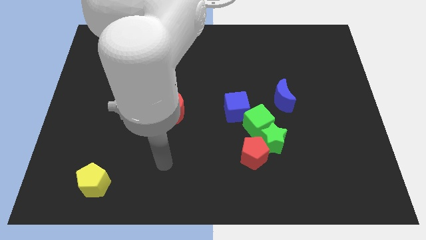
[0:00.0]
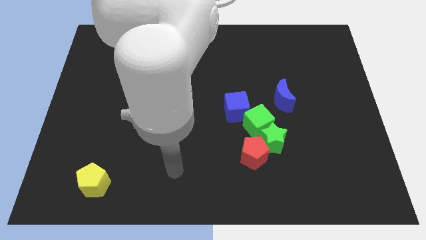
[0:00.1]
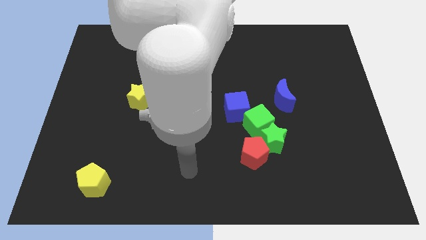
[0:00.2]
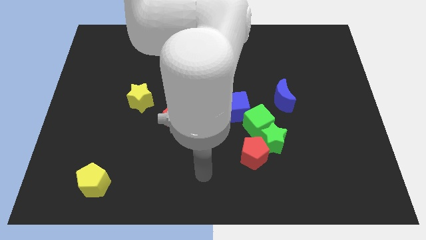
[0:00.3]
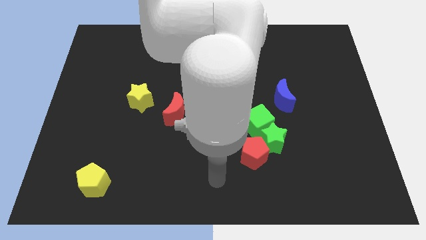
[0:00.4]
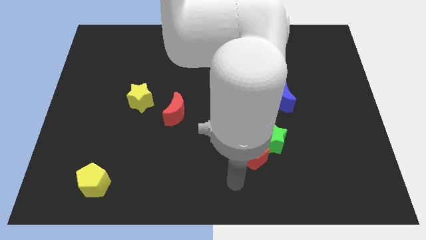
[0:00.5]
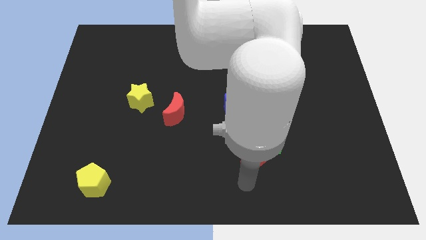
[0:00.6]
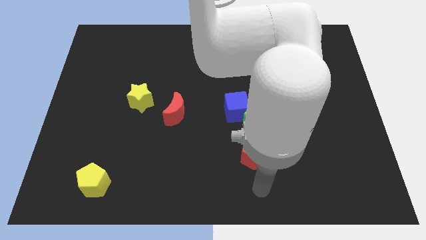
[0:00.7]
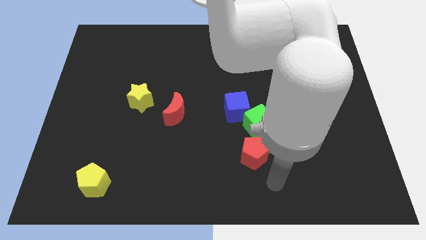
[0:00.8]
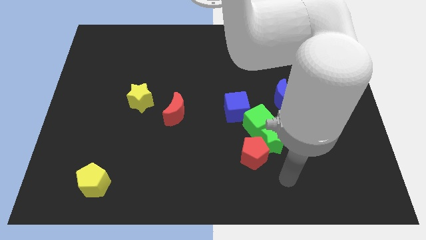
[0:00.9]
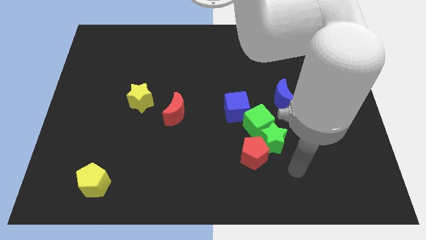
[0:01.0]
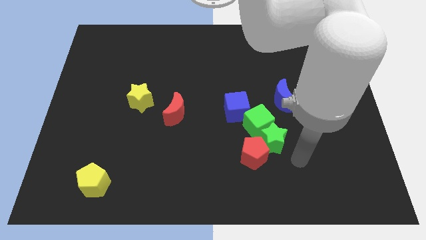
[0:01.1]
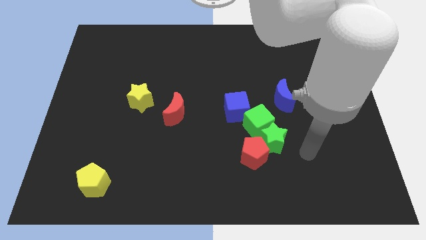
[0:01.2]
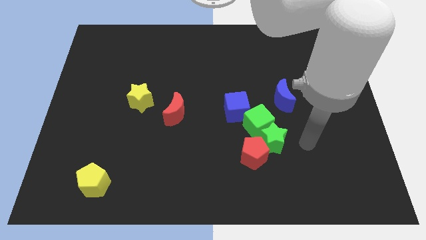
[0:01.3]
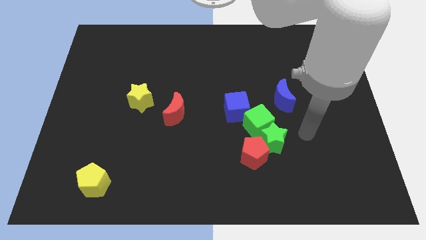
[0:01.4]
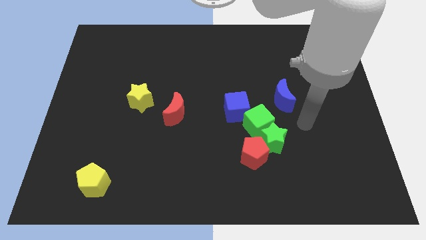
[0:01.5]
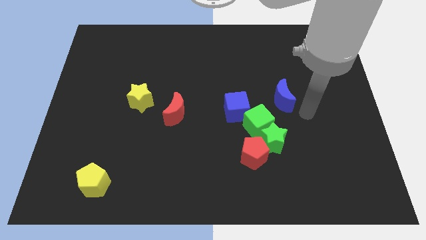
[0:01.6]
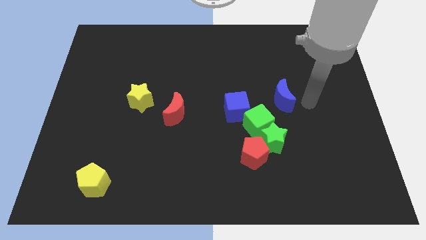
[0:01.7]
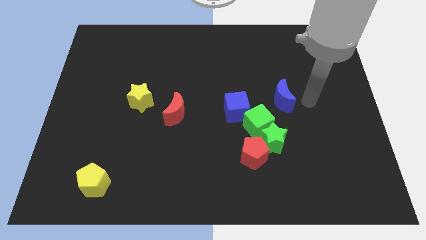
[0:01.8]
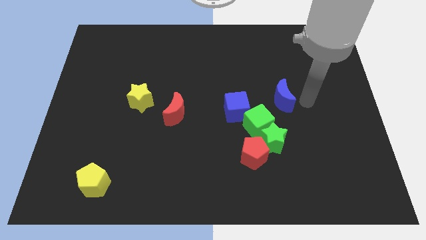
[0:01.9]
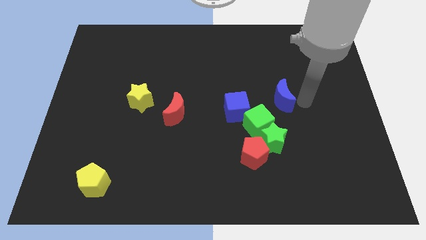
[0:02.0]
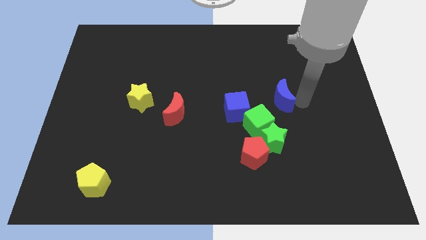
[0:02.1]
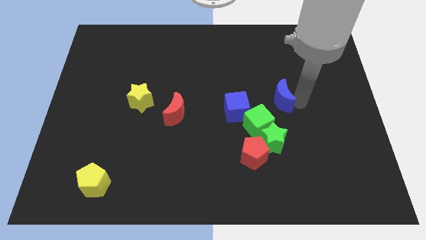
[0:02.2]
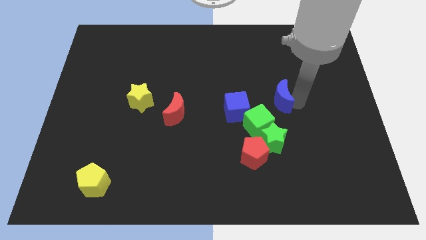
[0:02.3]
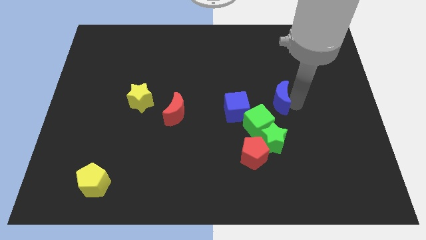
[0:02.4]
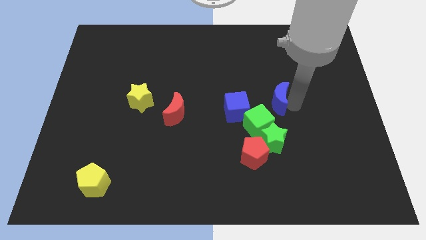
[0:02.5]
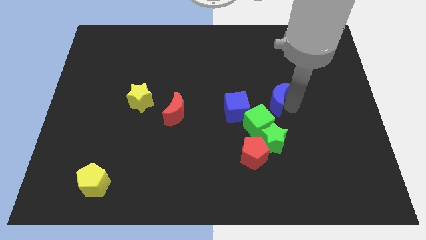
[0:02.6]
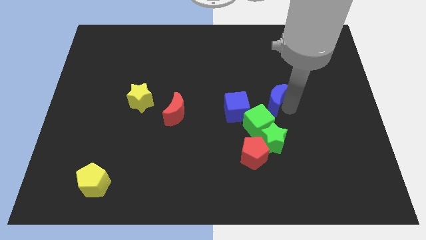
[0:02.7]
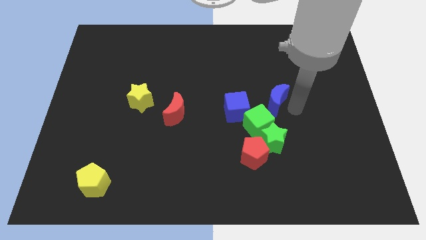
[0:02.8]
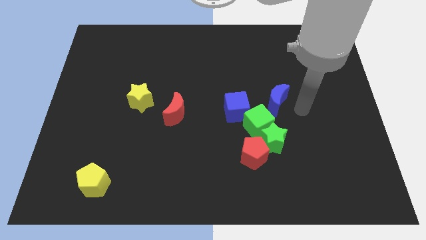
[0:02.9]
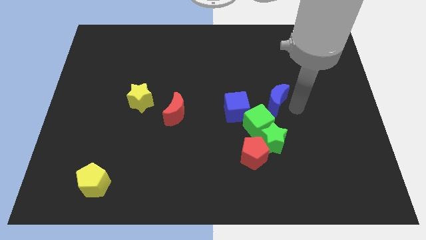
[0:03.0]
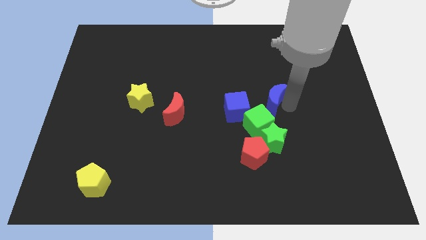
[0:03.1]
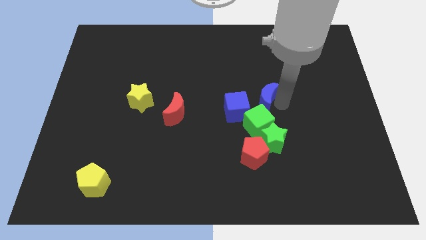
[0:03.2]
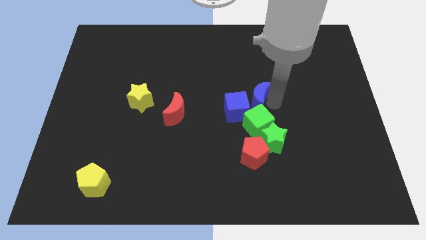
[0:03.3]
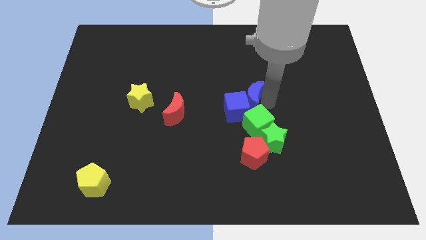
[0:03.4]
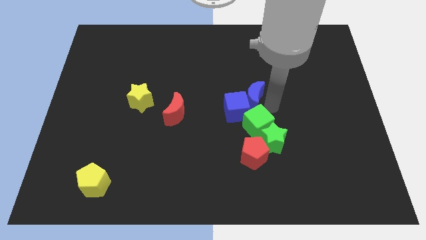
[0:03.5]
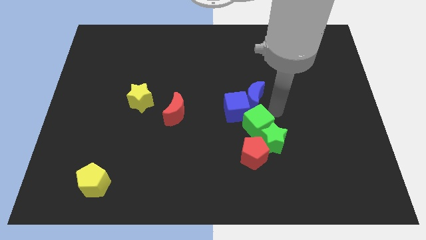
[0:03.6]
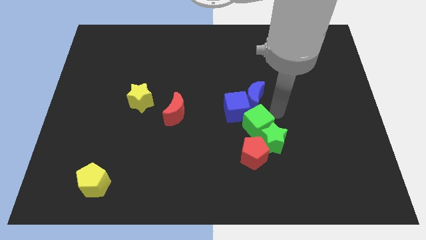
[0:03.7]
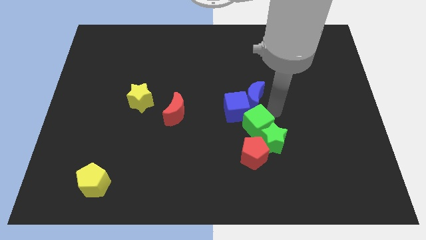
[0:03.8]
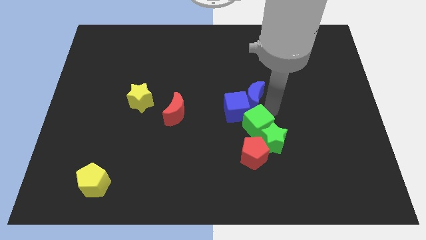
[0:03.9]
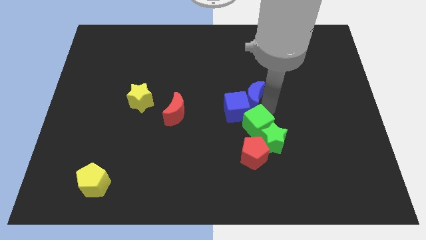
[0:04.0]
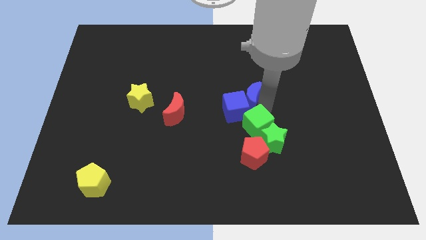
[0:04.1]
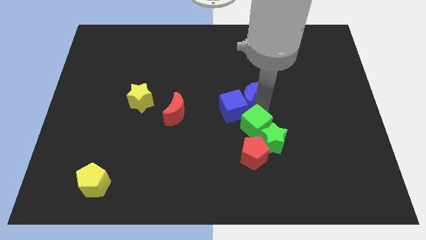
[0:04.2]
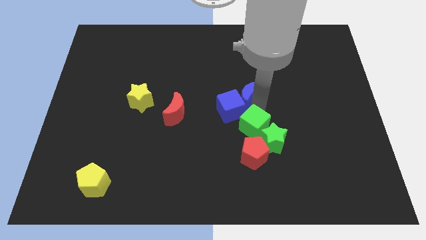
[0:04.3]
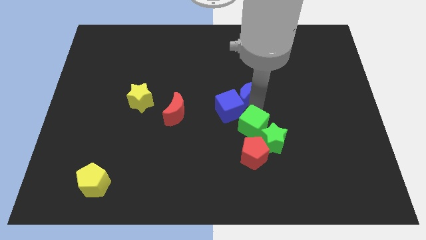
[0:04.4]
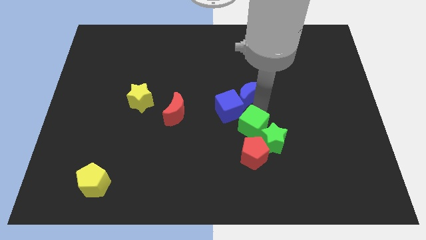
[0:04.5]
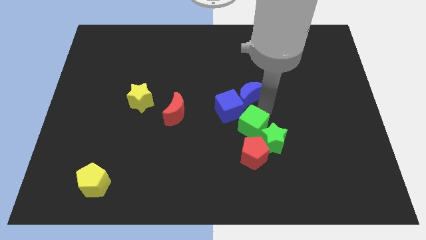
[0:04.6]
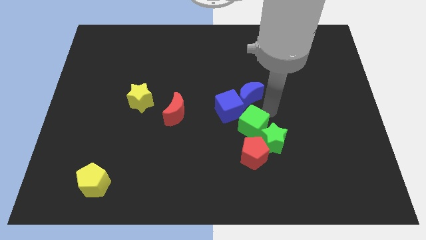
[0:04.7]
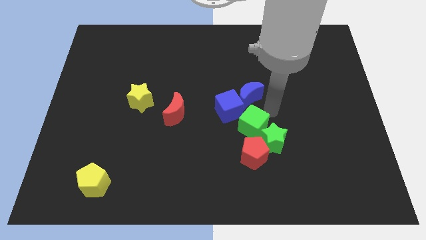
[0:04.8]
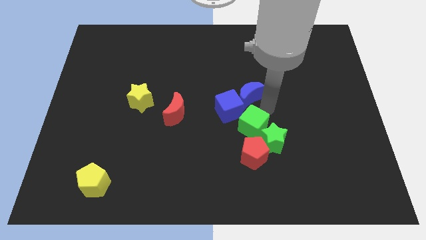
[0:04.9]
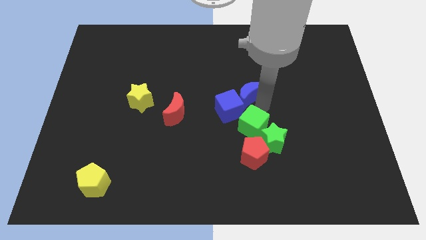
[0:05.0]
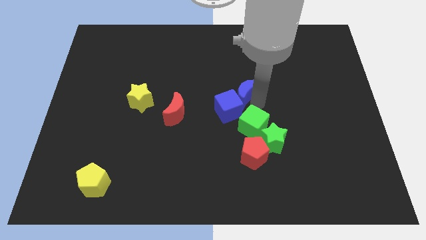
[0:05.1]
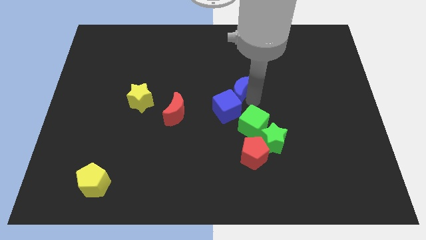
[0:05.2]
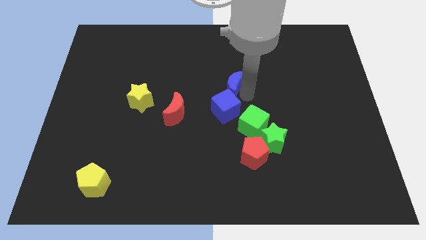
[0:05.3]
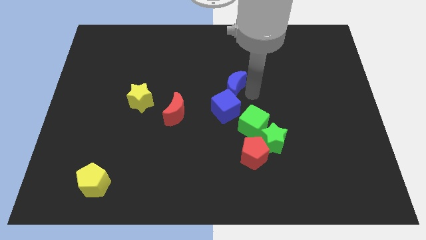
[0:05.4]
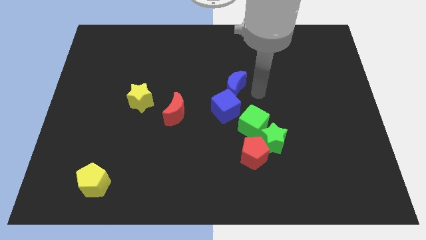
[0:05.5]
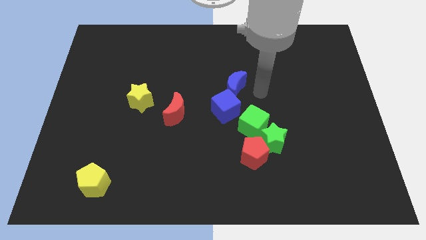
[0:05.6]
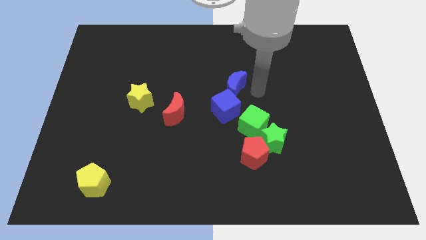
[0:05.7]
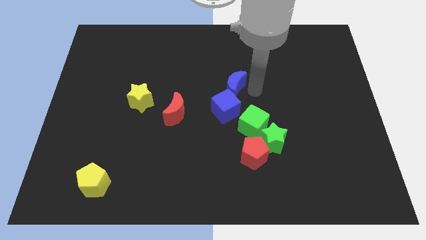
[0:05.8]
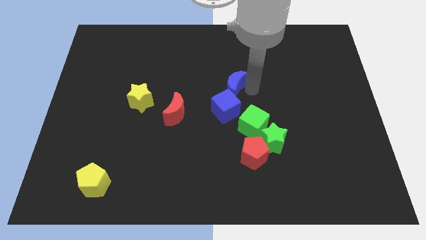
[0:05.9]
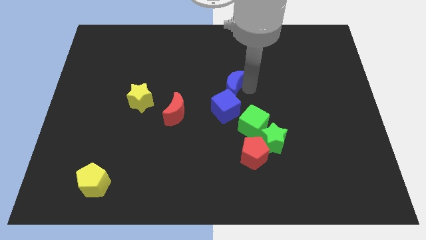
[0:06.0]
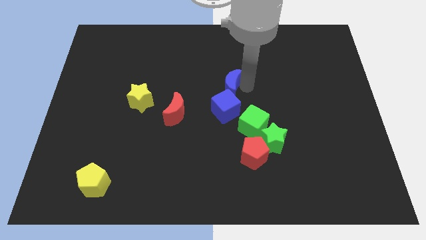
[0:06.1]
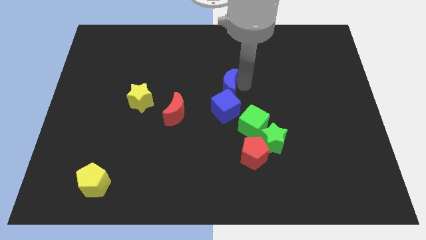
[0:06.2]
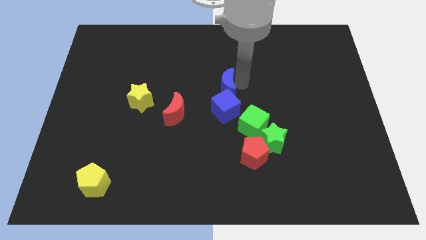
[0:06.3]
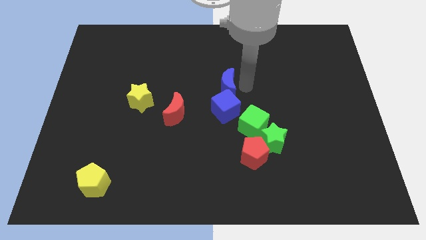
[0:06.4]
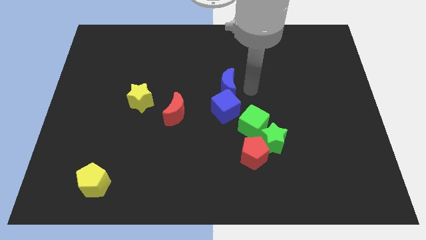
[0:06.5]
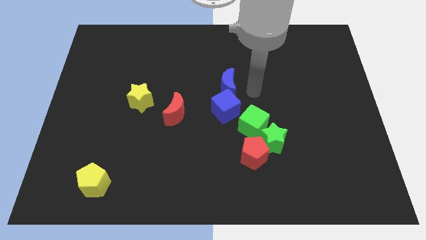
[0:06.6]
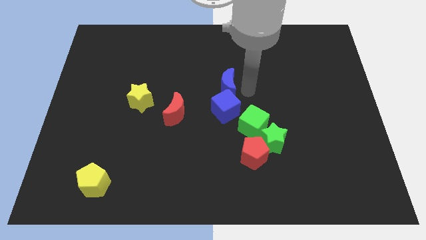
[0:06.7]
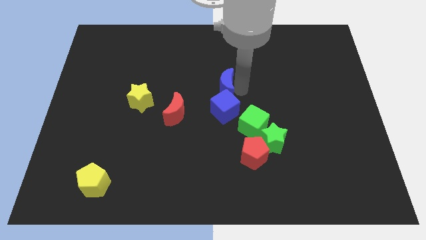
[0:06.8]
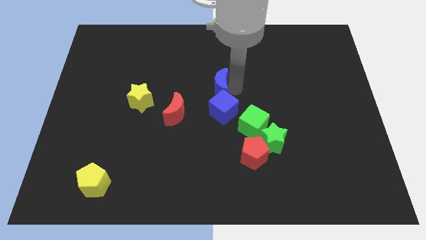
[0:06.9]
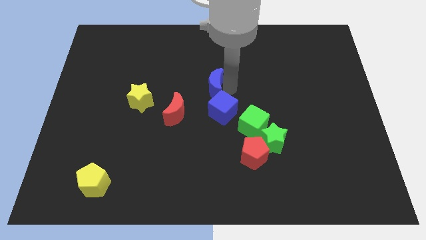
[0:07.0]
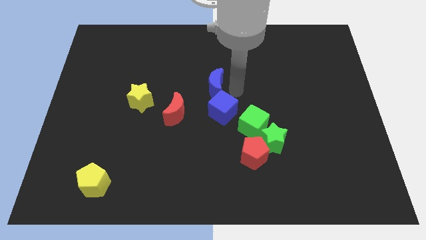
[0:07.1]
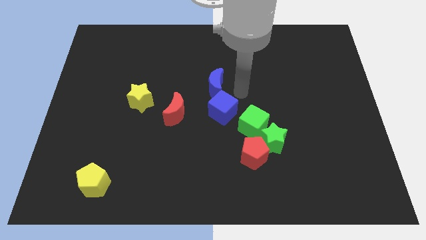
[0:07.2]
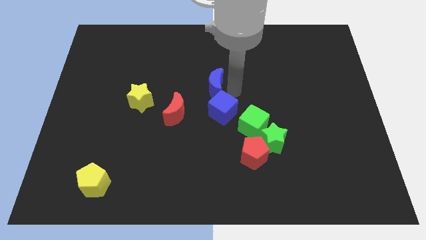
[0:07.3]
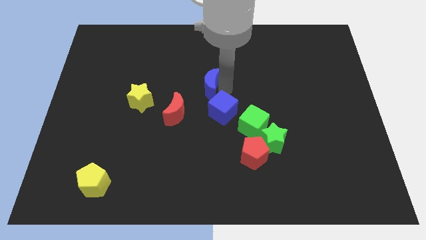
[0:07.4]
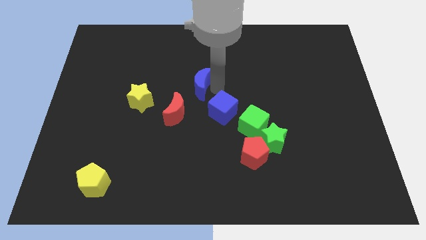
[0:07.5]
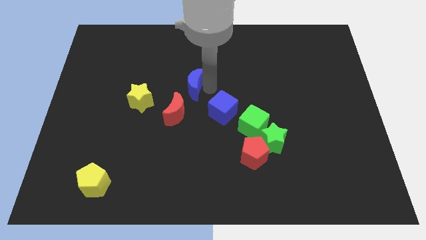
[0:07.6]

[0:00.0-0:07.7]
push the blue moon to the top side of the red moon
